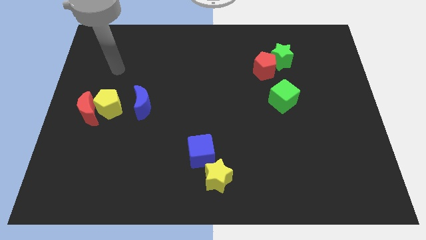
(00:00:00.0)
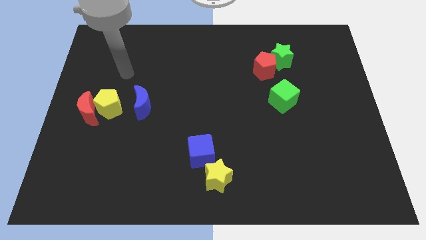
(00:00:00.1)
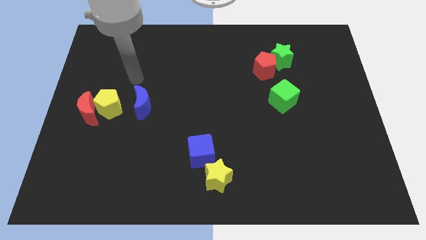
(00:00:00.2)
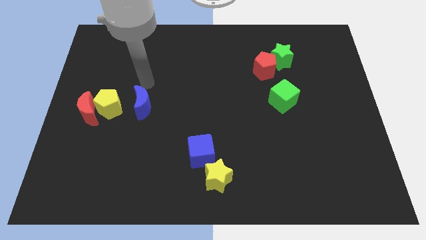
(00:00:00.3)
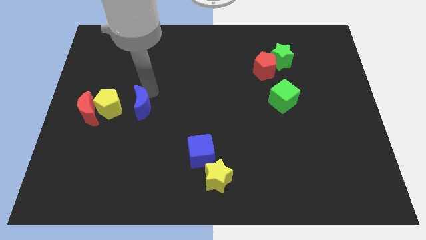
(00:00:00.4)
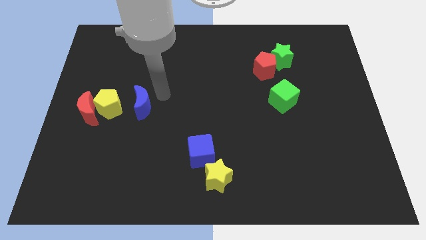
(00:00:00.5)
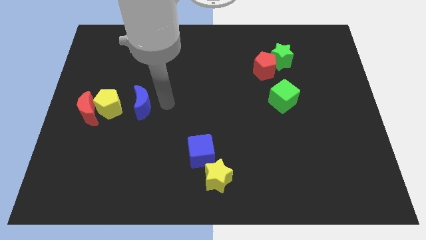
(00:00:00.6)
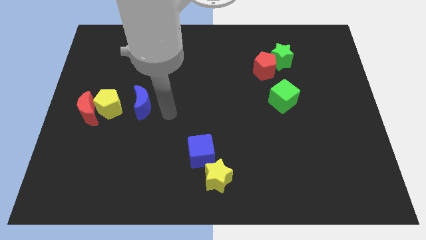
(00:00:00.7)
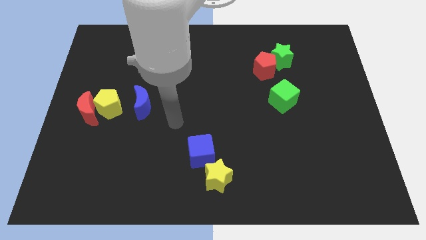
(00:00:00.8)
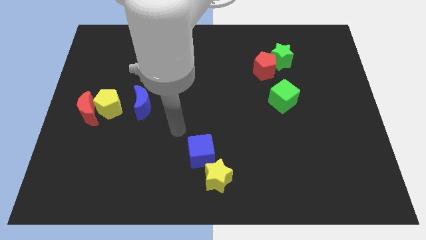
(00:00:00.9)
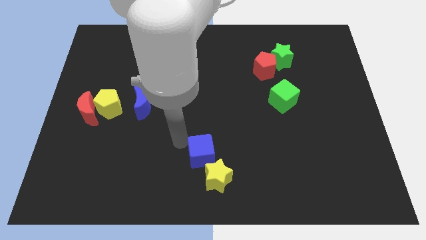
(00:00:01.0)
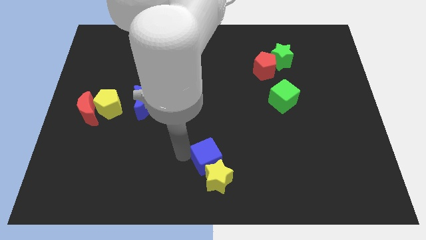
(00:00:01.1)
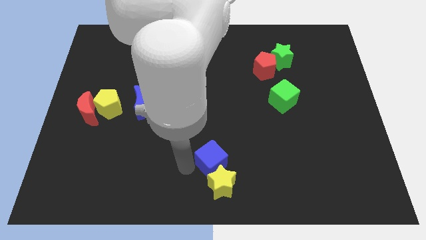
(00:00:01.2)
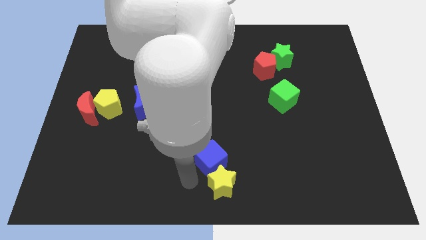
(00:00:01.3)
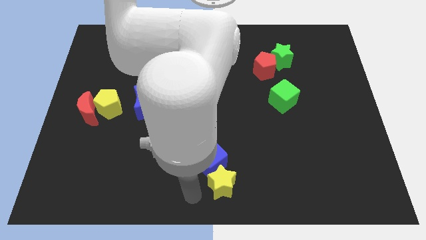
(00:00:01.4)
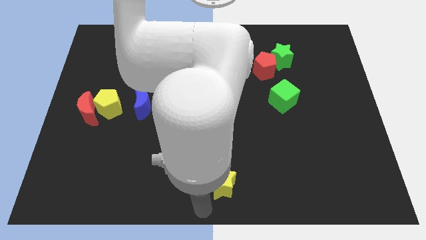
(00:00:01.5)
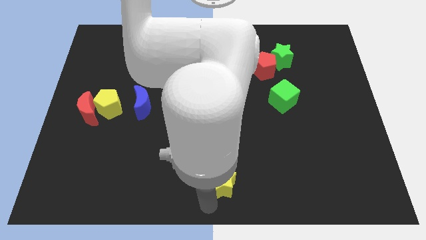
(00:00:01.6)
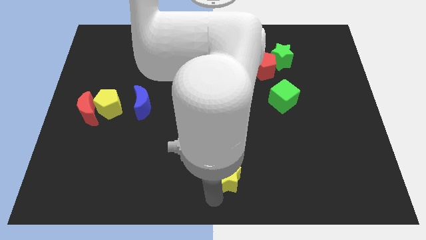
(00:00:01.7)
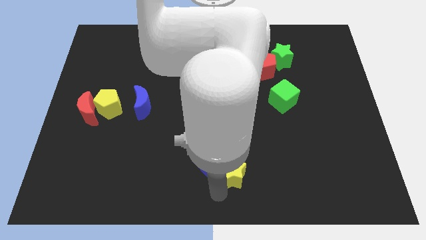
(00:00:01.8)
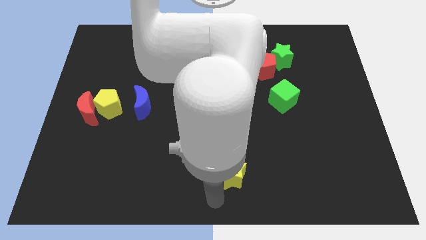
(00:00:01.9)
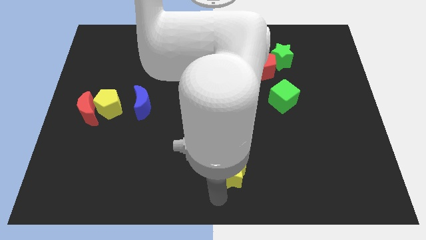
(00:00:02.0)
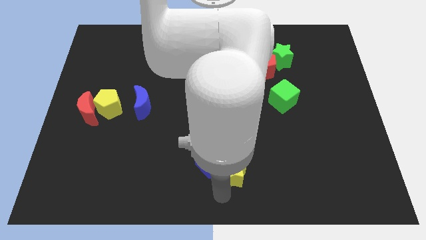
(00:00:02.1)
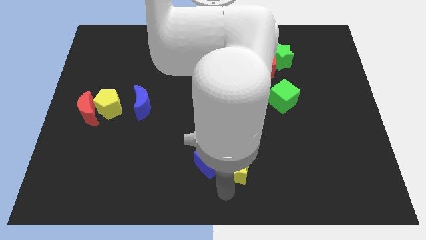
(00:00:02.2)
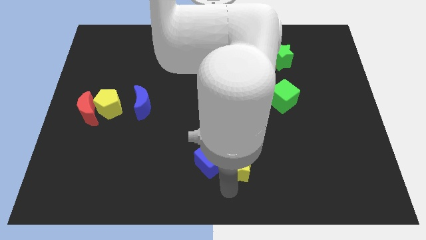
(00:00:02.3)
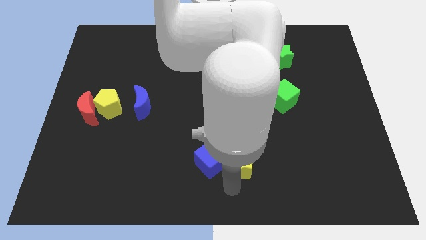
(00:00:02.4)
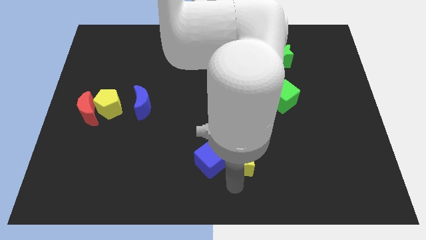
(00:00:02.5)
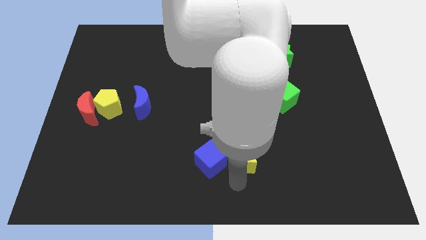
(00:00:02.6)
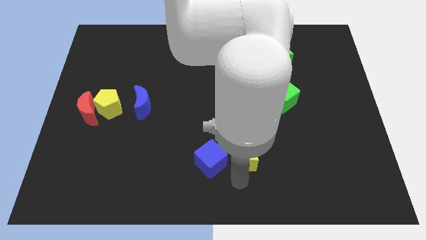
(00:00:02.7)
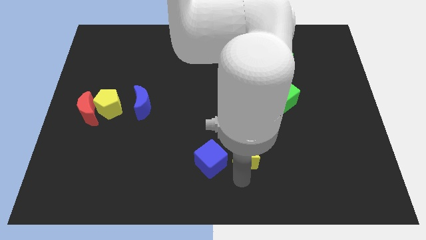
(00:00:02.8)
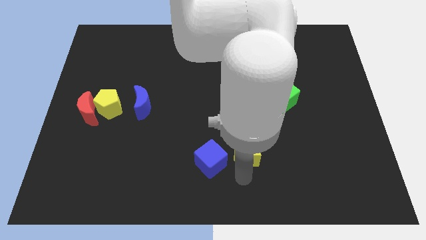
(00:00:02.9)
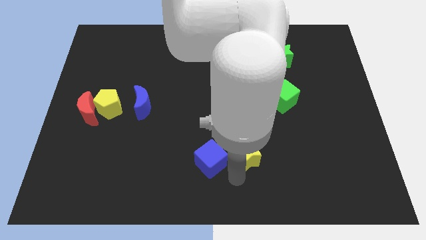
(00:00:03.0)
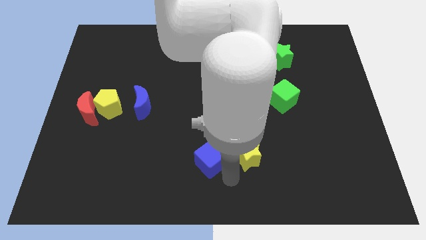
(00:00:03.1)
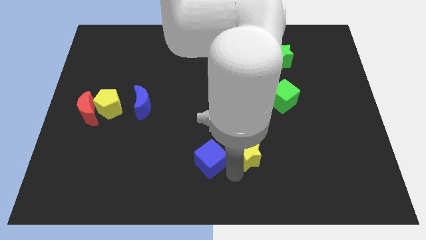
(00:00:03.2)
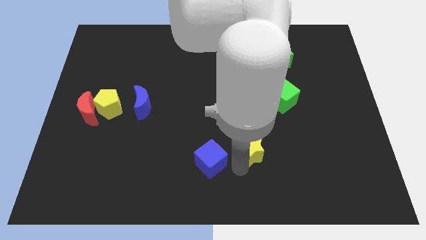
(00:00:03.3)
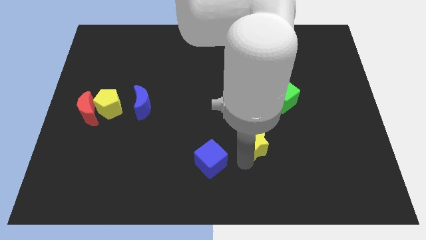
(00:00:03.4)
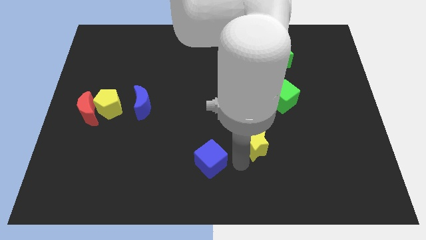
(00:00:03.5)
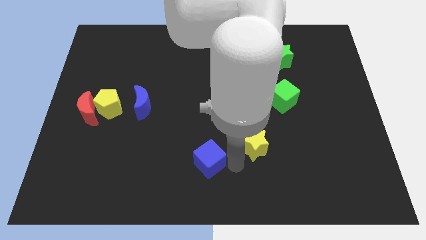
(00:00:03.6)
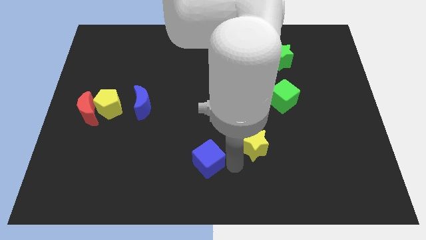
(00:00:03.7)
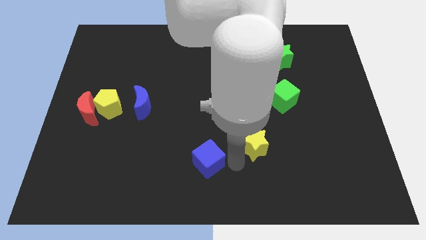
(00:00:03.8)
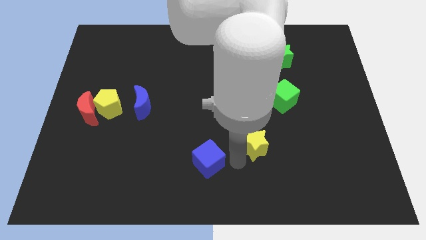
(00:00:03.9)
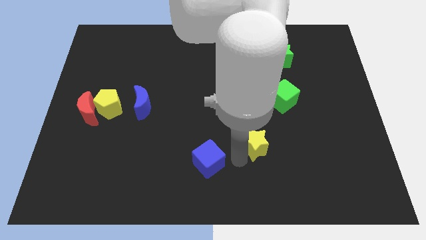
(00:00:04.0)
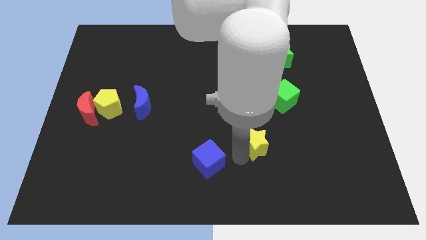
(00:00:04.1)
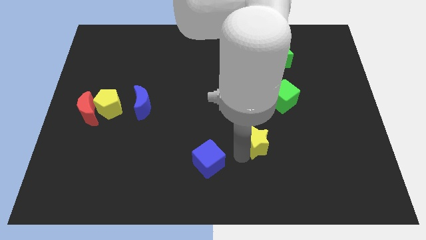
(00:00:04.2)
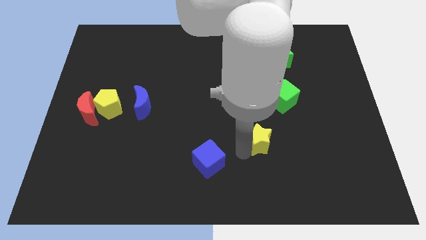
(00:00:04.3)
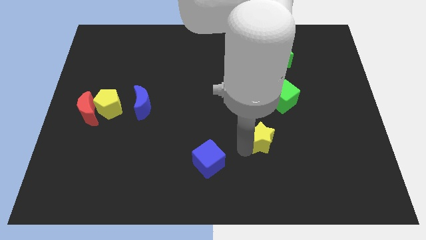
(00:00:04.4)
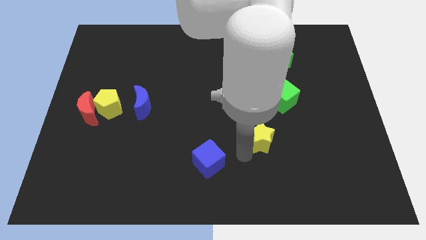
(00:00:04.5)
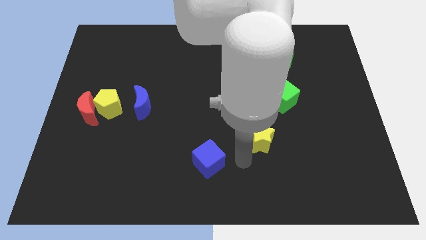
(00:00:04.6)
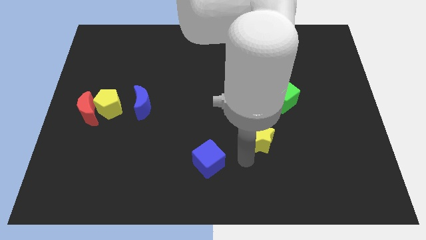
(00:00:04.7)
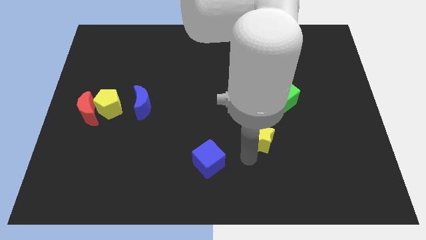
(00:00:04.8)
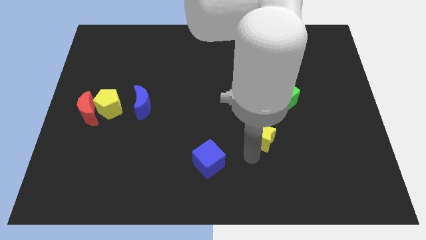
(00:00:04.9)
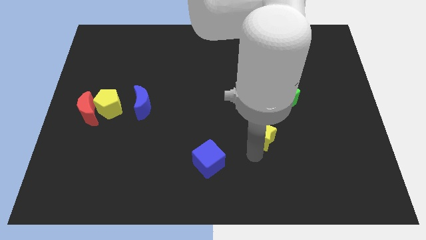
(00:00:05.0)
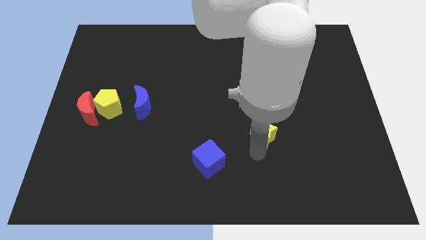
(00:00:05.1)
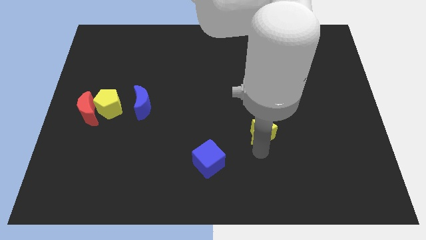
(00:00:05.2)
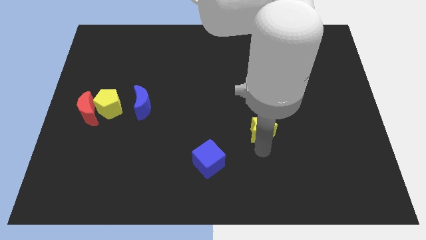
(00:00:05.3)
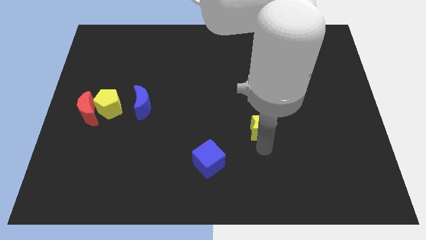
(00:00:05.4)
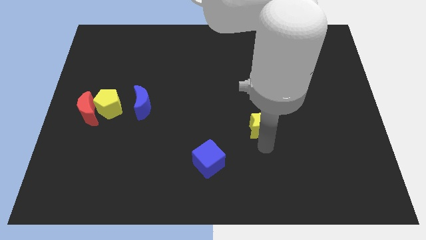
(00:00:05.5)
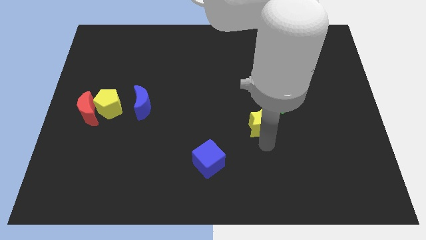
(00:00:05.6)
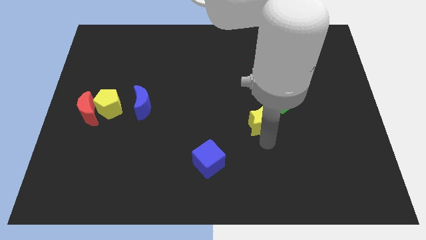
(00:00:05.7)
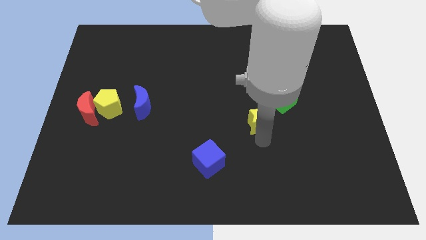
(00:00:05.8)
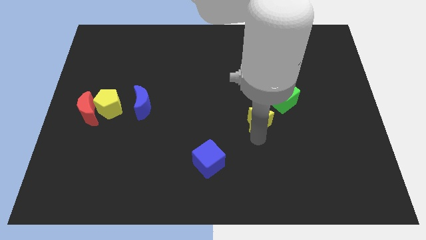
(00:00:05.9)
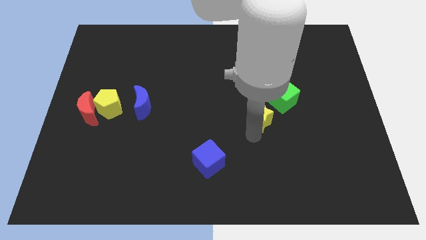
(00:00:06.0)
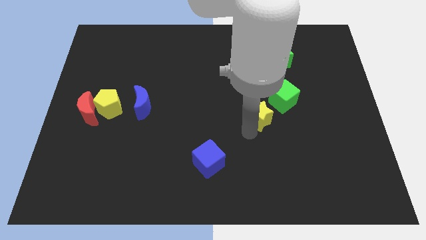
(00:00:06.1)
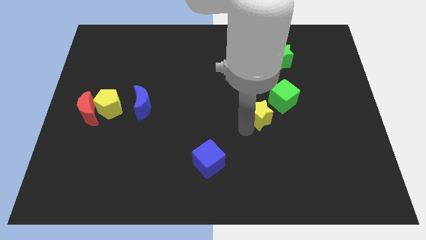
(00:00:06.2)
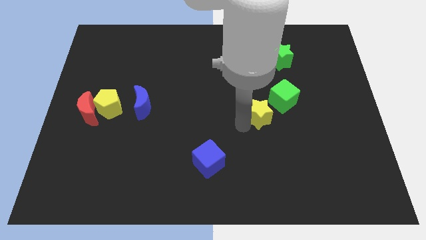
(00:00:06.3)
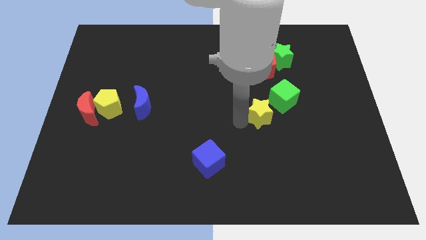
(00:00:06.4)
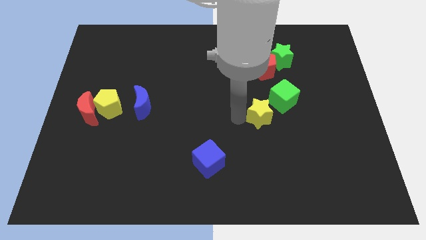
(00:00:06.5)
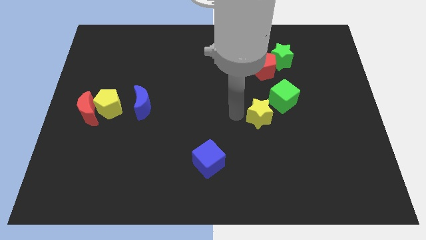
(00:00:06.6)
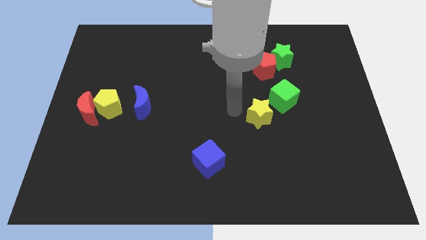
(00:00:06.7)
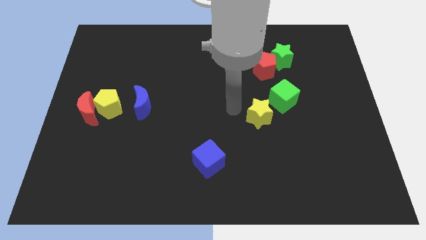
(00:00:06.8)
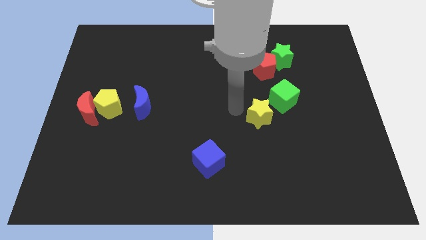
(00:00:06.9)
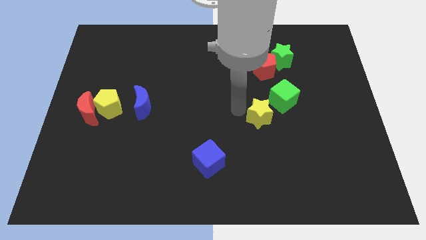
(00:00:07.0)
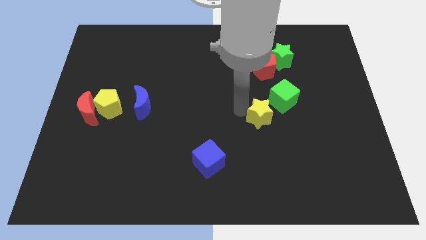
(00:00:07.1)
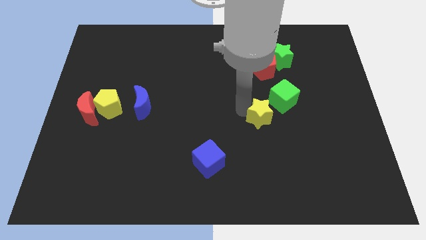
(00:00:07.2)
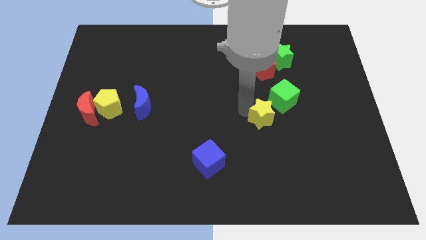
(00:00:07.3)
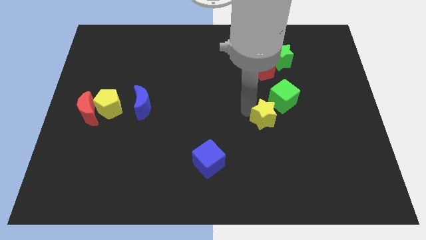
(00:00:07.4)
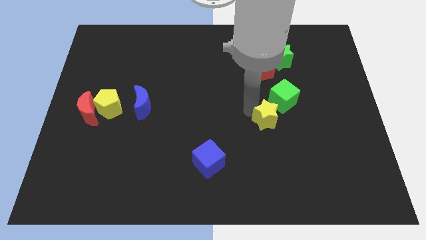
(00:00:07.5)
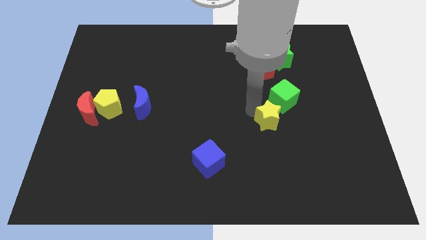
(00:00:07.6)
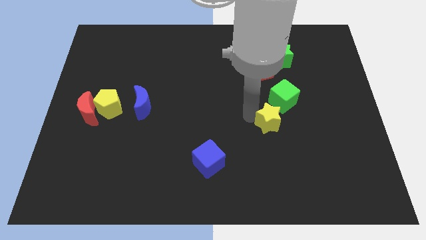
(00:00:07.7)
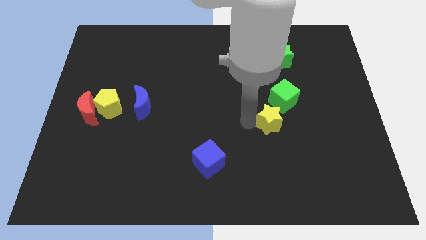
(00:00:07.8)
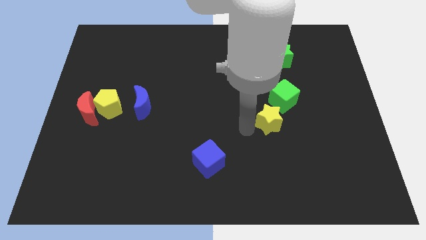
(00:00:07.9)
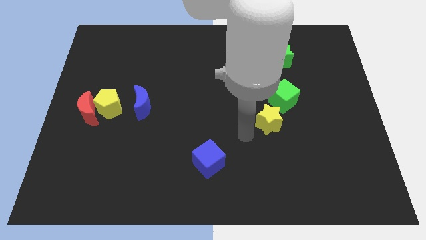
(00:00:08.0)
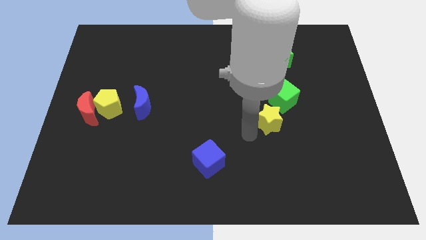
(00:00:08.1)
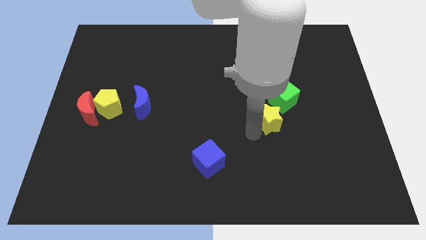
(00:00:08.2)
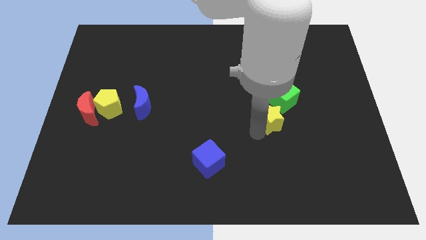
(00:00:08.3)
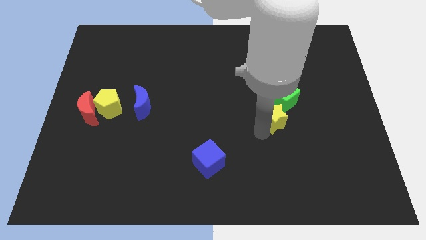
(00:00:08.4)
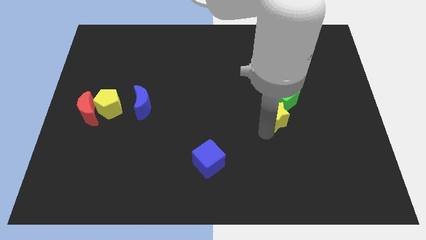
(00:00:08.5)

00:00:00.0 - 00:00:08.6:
move the yellow star diagonally upwards and to the right
